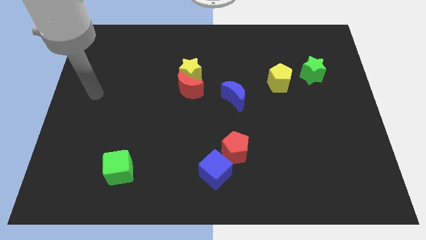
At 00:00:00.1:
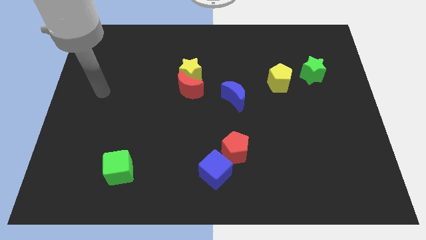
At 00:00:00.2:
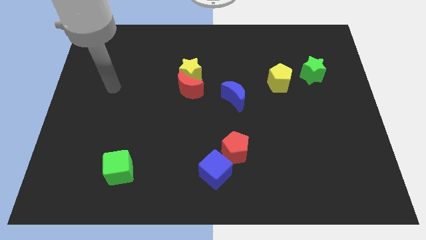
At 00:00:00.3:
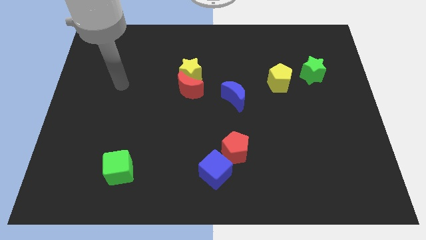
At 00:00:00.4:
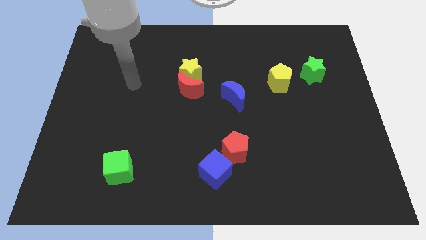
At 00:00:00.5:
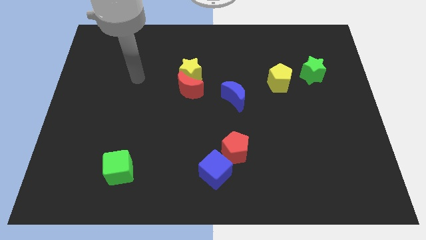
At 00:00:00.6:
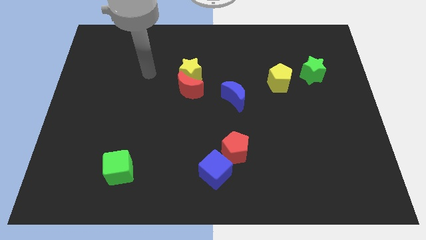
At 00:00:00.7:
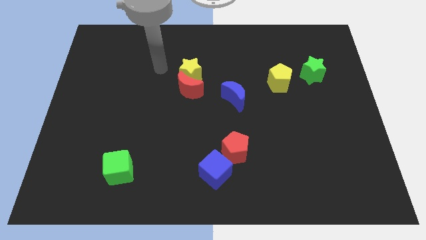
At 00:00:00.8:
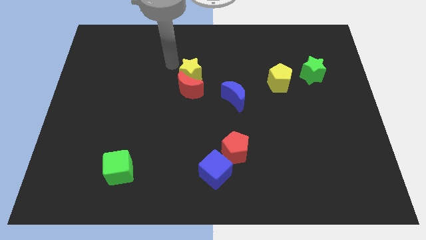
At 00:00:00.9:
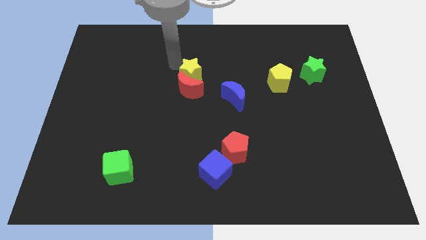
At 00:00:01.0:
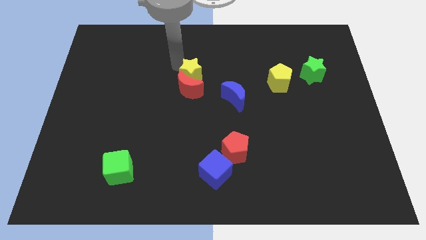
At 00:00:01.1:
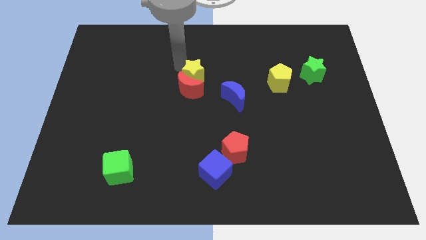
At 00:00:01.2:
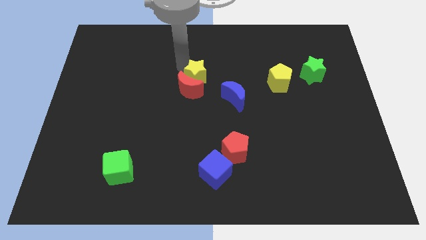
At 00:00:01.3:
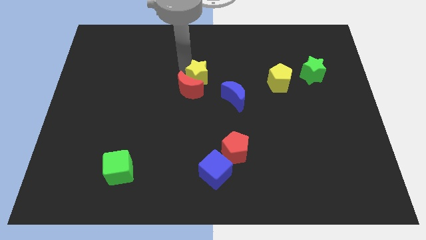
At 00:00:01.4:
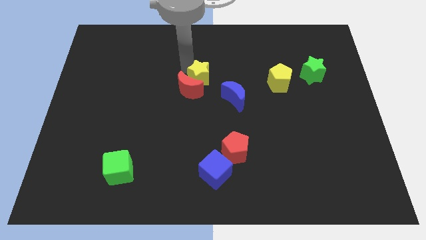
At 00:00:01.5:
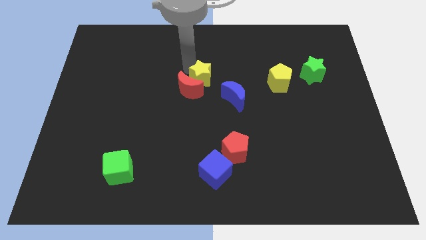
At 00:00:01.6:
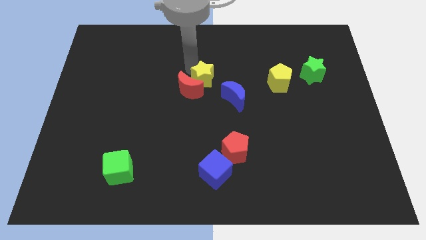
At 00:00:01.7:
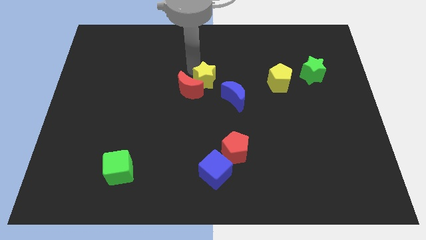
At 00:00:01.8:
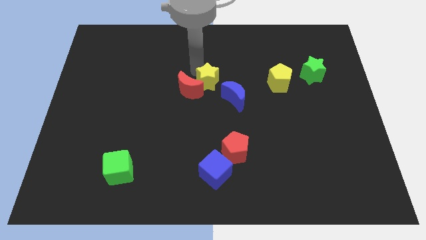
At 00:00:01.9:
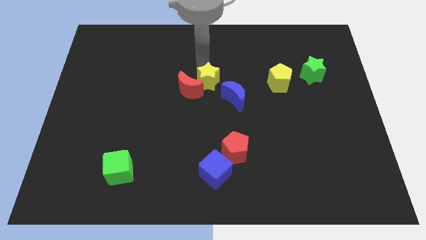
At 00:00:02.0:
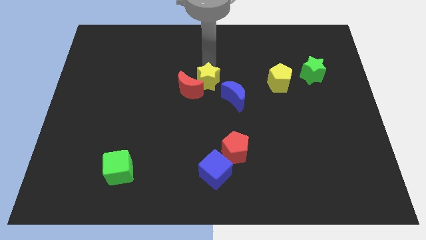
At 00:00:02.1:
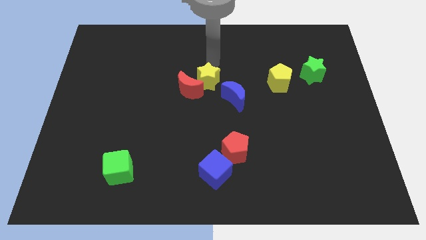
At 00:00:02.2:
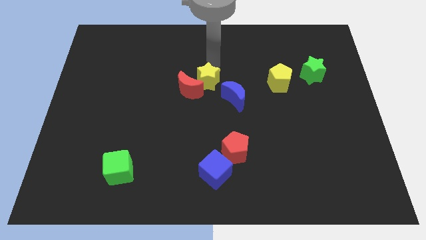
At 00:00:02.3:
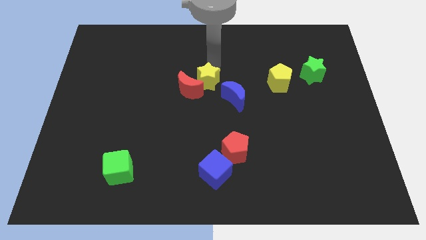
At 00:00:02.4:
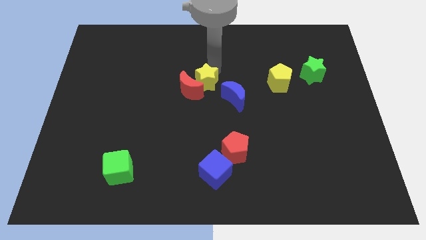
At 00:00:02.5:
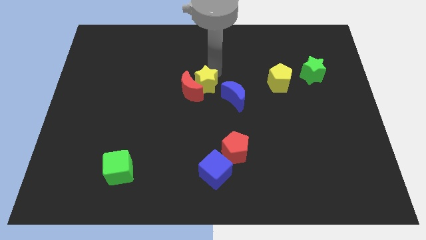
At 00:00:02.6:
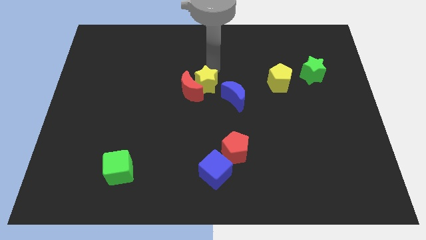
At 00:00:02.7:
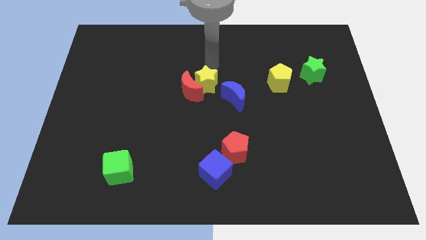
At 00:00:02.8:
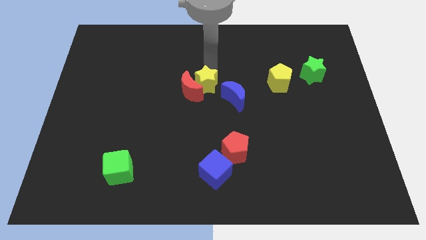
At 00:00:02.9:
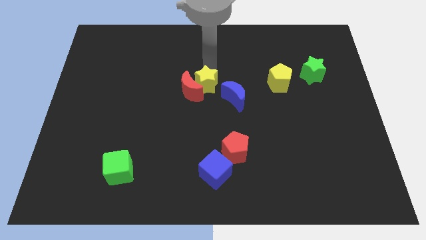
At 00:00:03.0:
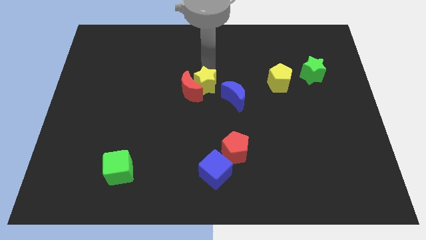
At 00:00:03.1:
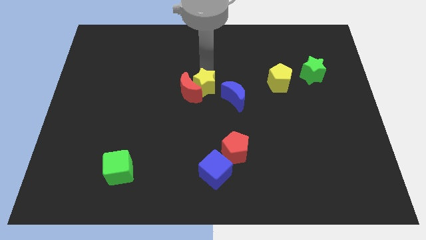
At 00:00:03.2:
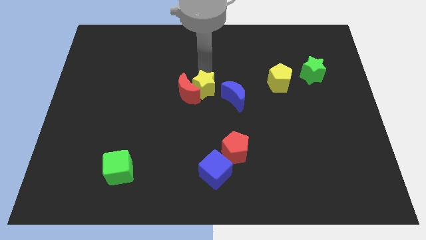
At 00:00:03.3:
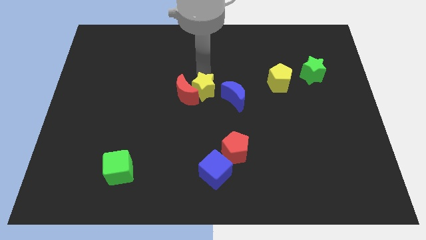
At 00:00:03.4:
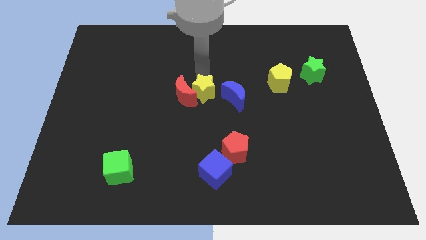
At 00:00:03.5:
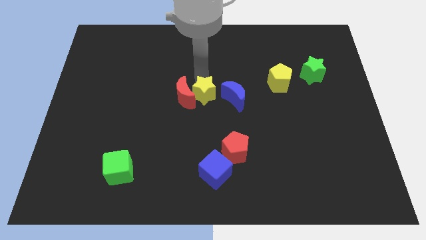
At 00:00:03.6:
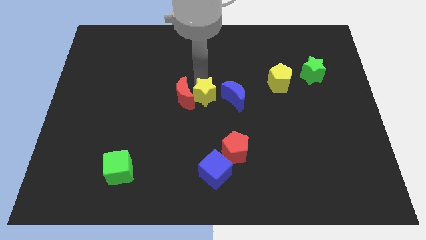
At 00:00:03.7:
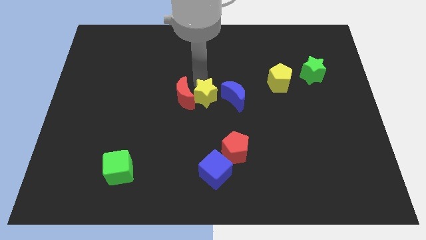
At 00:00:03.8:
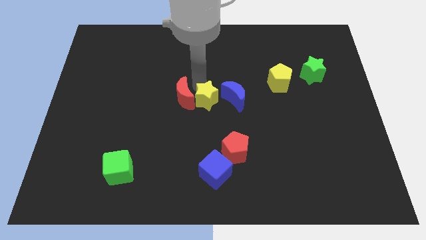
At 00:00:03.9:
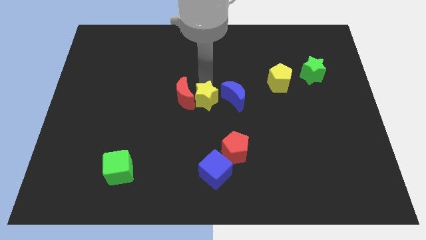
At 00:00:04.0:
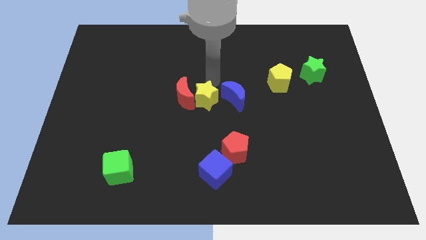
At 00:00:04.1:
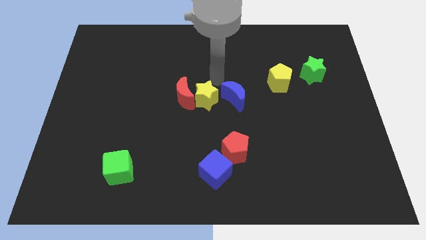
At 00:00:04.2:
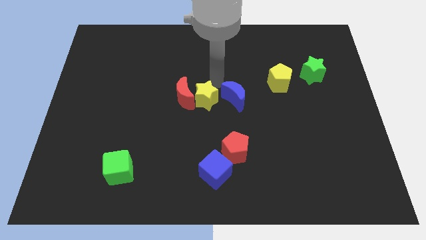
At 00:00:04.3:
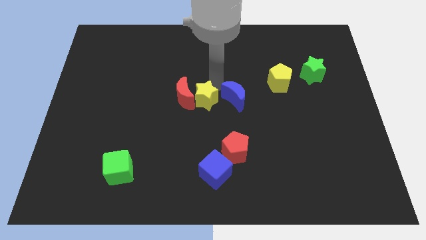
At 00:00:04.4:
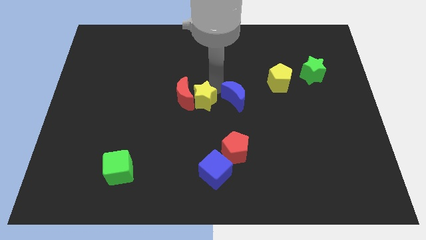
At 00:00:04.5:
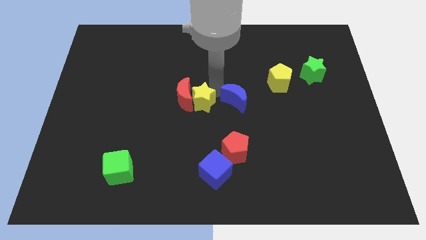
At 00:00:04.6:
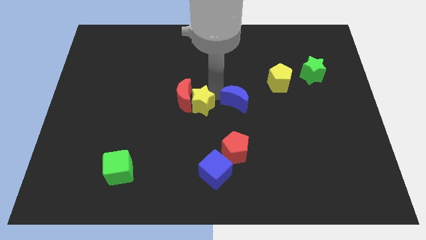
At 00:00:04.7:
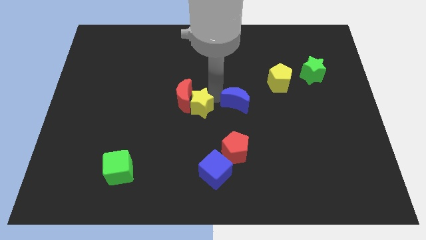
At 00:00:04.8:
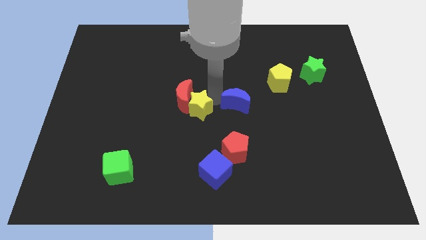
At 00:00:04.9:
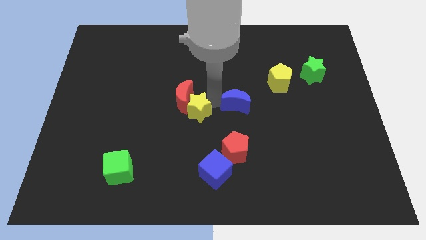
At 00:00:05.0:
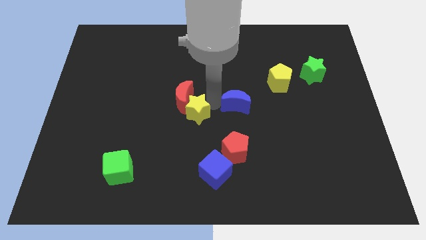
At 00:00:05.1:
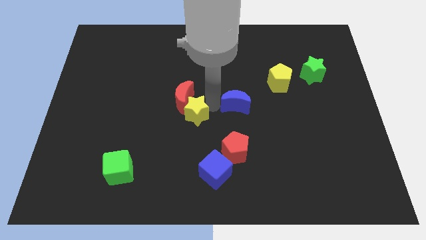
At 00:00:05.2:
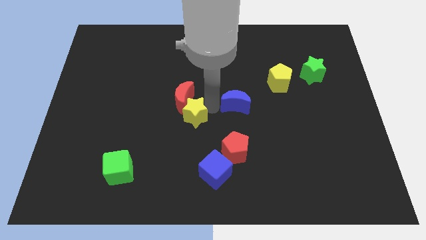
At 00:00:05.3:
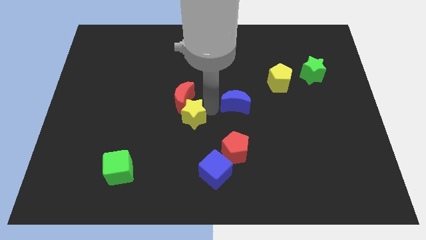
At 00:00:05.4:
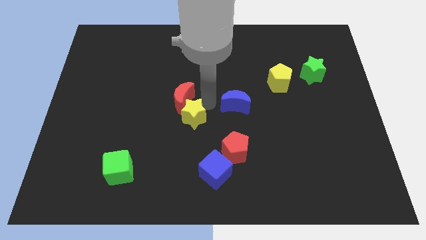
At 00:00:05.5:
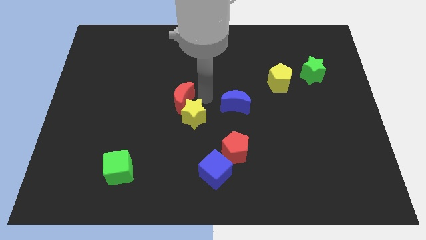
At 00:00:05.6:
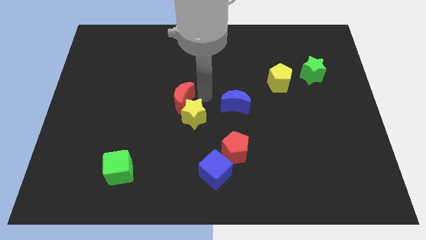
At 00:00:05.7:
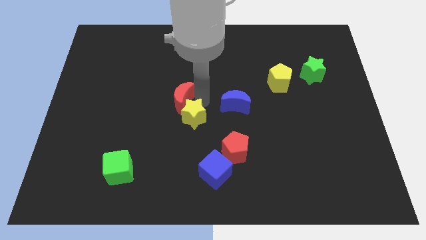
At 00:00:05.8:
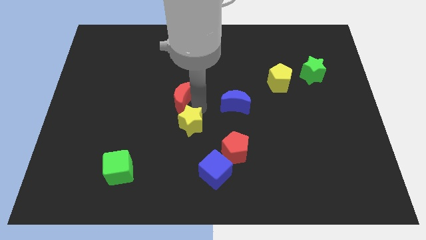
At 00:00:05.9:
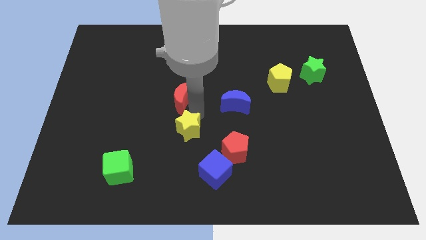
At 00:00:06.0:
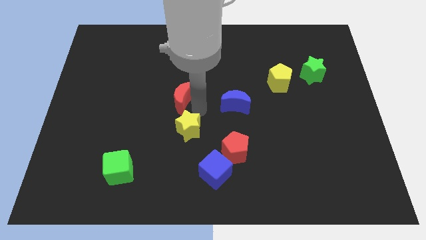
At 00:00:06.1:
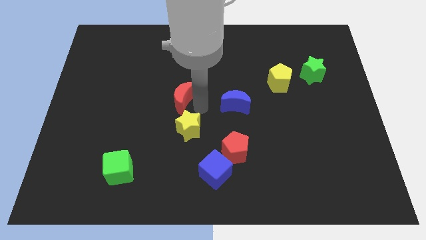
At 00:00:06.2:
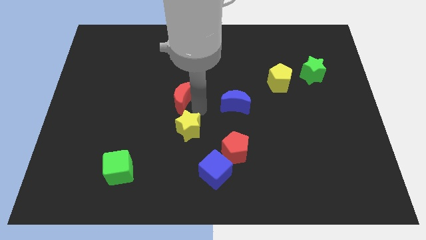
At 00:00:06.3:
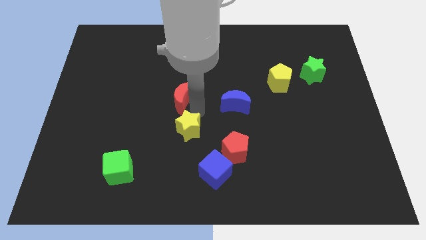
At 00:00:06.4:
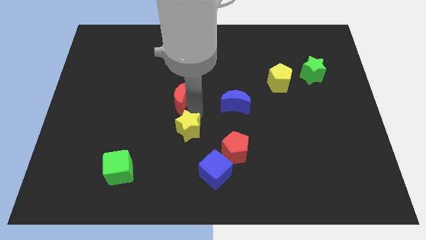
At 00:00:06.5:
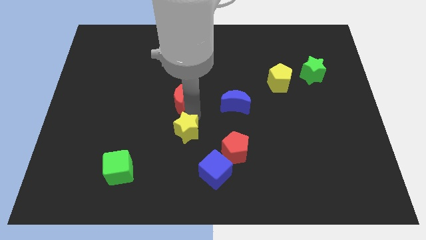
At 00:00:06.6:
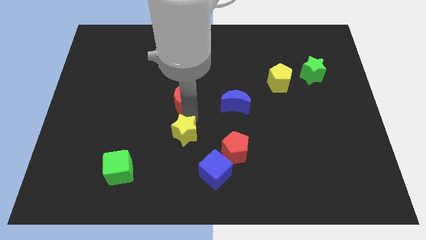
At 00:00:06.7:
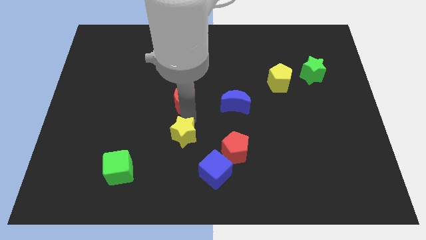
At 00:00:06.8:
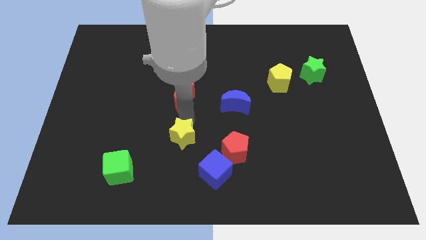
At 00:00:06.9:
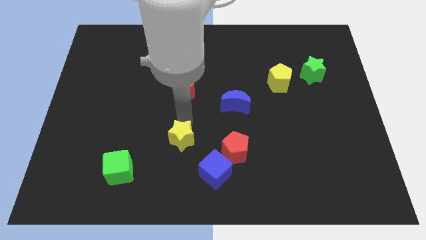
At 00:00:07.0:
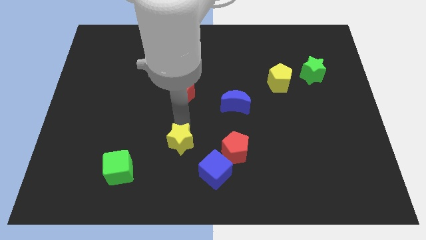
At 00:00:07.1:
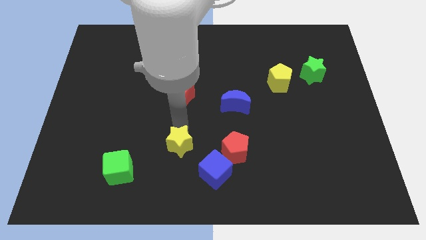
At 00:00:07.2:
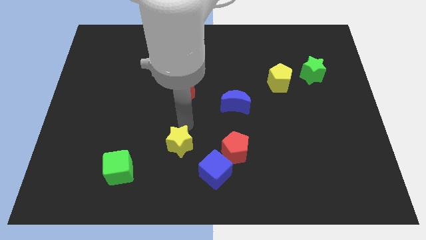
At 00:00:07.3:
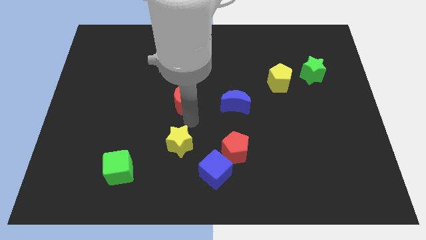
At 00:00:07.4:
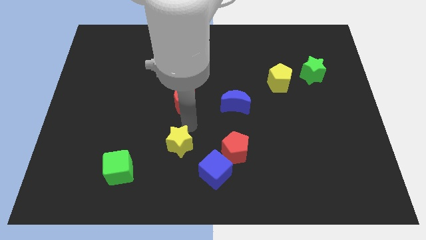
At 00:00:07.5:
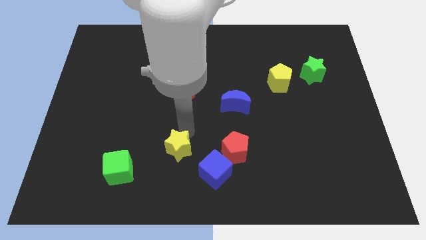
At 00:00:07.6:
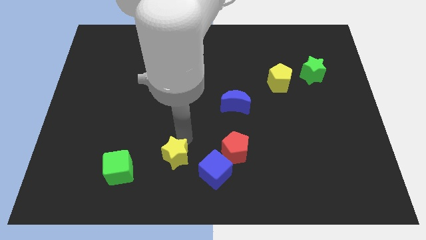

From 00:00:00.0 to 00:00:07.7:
move the yellow star just right of the green cube
